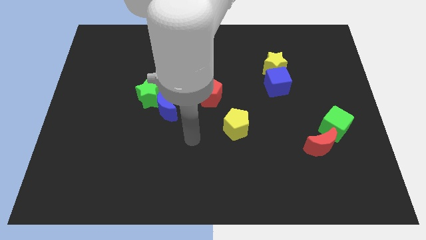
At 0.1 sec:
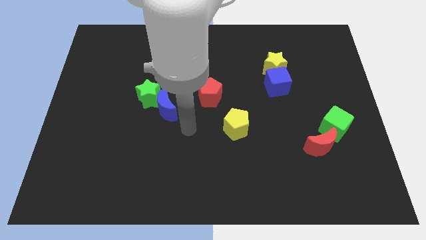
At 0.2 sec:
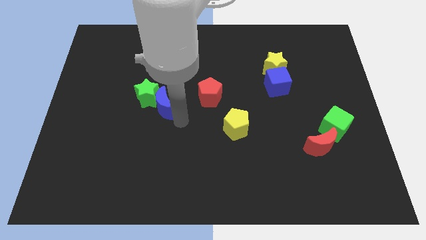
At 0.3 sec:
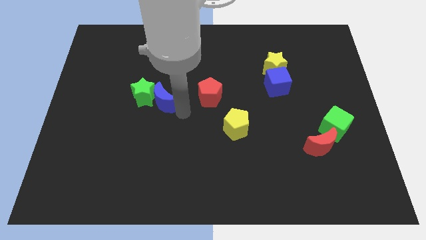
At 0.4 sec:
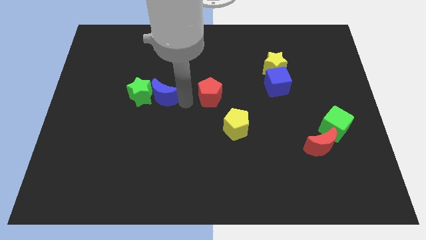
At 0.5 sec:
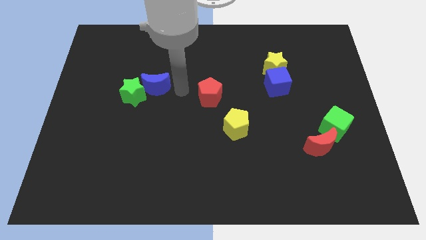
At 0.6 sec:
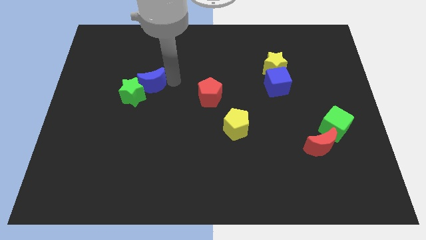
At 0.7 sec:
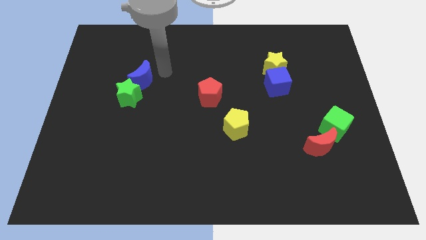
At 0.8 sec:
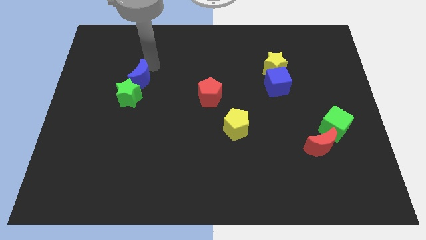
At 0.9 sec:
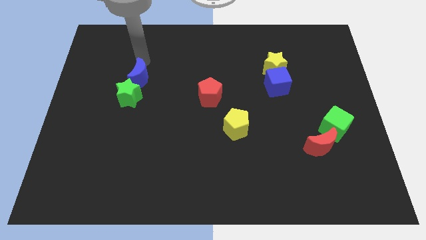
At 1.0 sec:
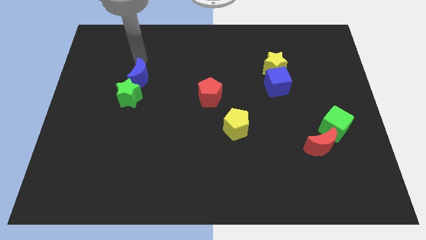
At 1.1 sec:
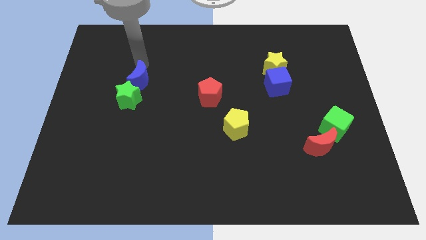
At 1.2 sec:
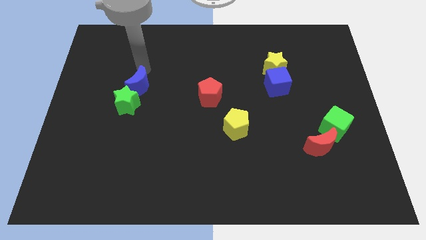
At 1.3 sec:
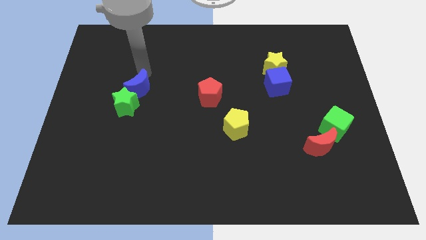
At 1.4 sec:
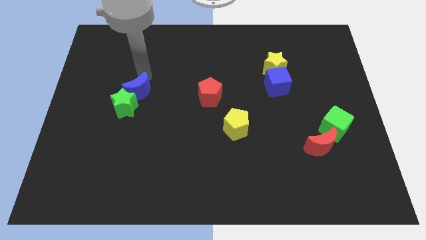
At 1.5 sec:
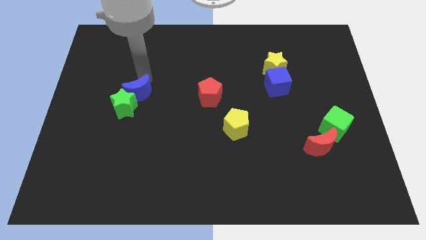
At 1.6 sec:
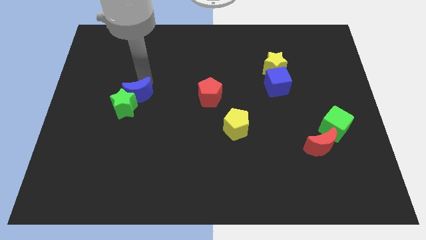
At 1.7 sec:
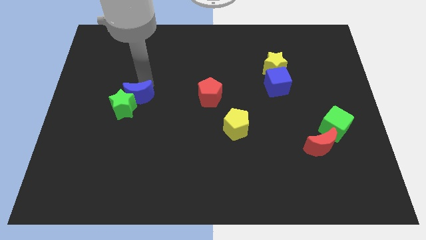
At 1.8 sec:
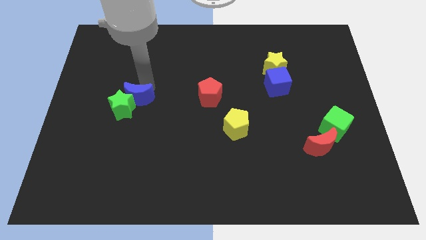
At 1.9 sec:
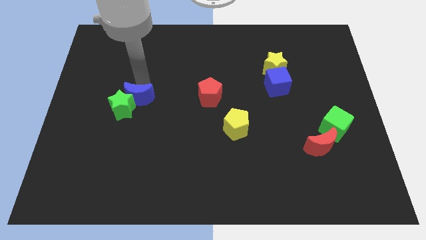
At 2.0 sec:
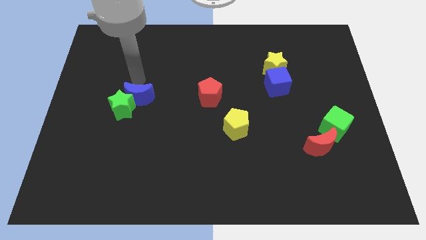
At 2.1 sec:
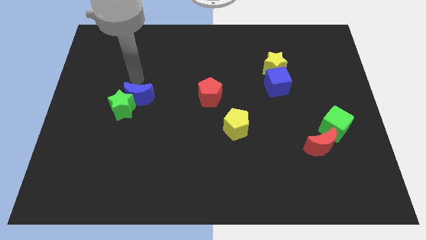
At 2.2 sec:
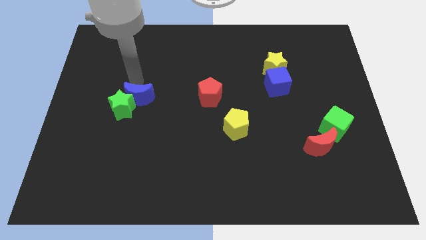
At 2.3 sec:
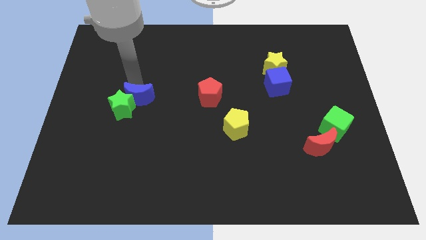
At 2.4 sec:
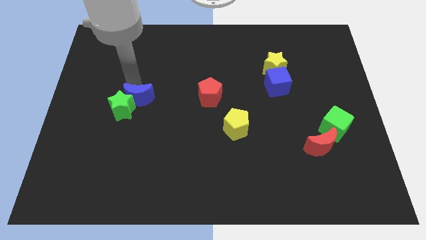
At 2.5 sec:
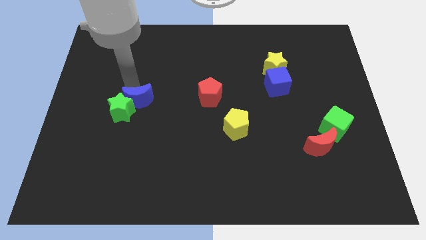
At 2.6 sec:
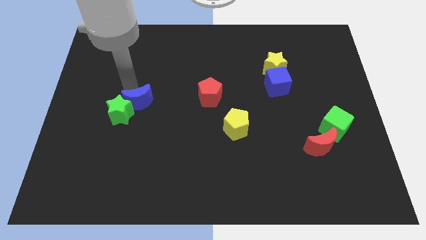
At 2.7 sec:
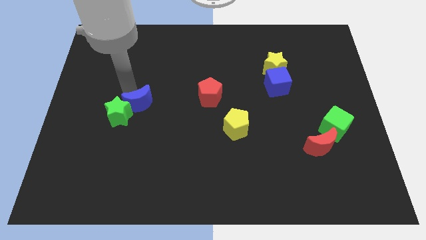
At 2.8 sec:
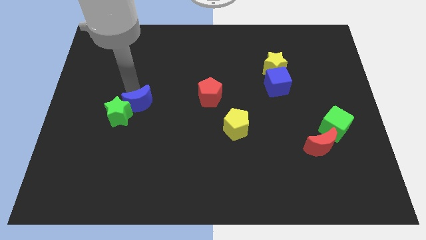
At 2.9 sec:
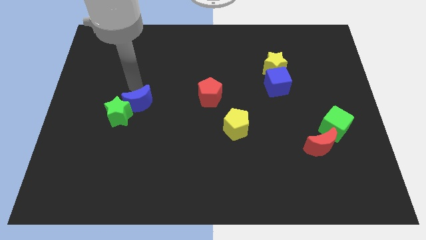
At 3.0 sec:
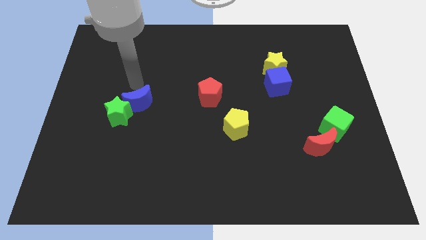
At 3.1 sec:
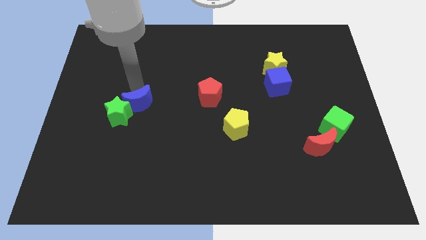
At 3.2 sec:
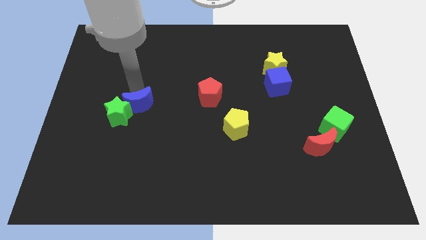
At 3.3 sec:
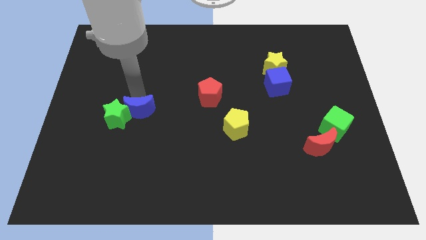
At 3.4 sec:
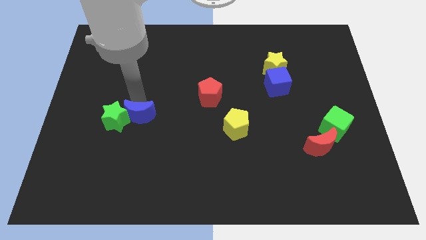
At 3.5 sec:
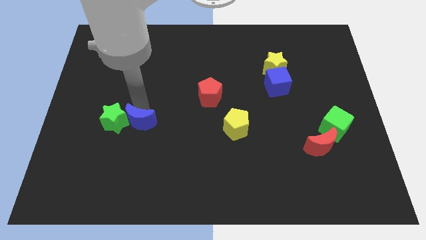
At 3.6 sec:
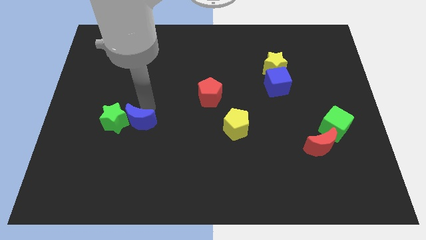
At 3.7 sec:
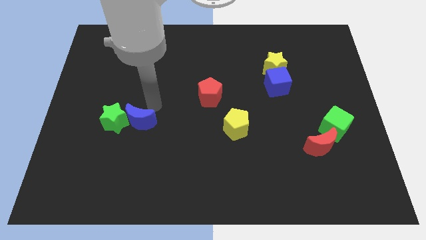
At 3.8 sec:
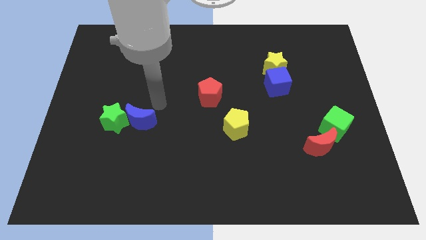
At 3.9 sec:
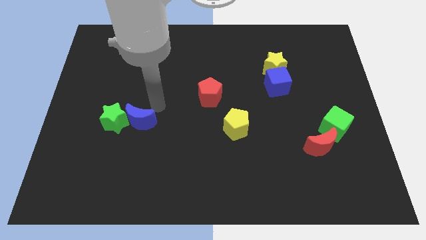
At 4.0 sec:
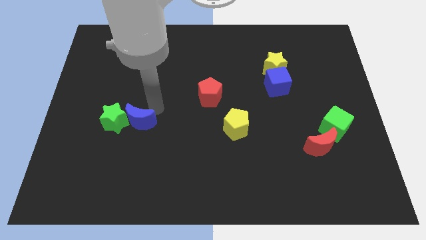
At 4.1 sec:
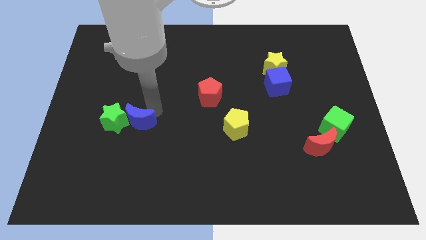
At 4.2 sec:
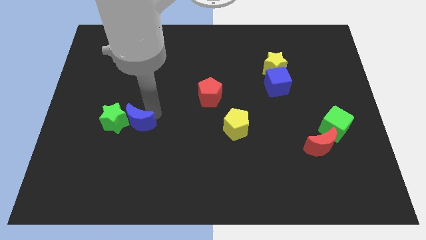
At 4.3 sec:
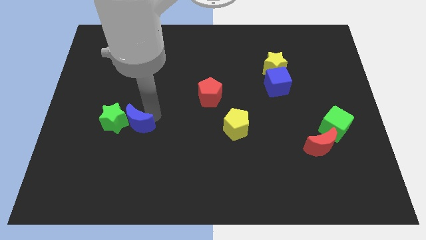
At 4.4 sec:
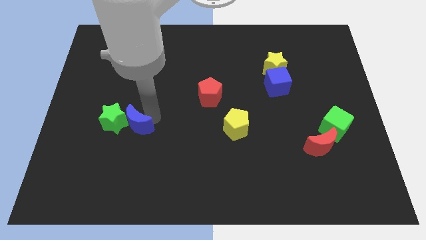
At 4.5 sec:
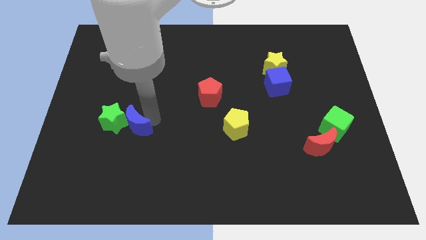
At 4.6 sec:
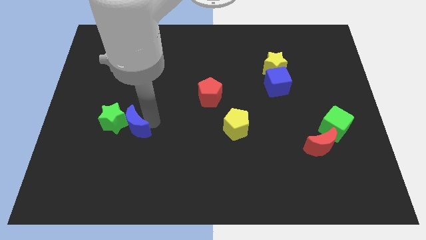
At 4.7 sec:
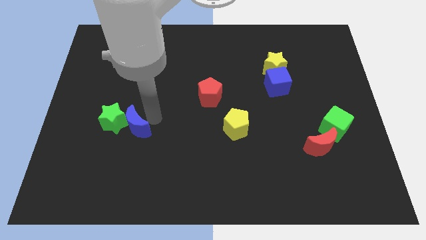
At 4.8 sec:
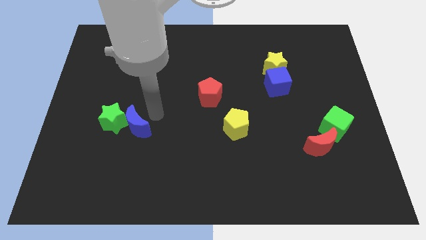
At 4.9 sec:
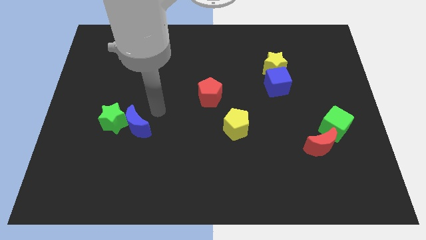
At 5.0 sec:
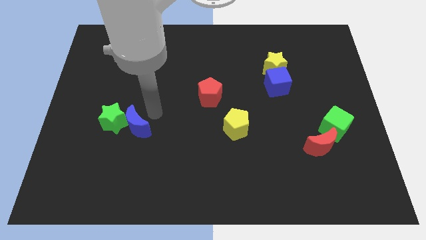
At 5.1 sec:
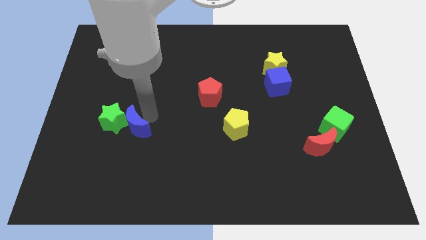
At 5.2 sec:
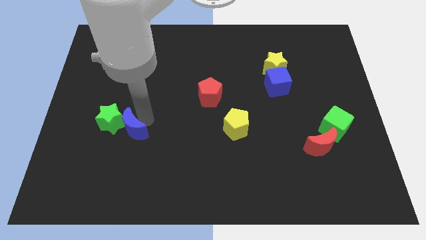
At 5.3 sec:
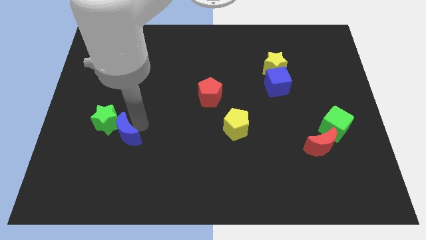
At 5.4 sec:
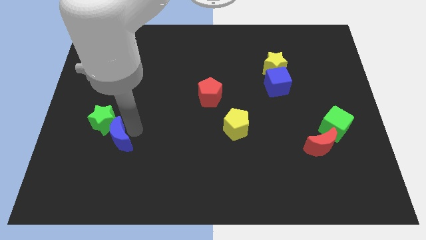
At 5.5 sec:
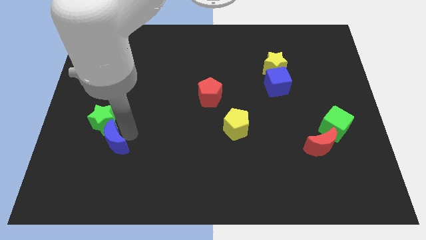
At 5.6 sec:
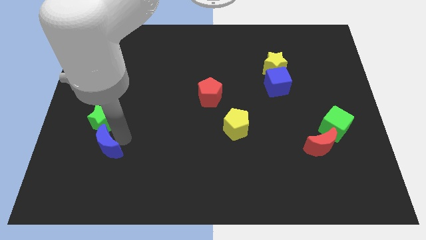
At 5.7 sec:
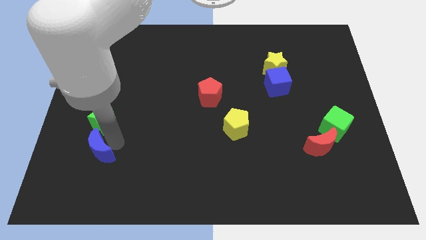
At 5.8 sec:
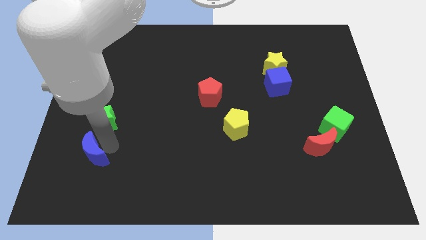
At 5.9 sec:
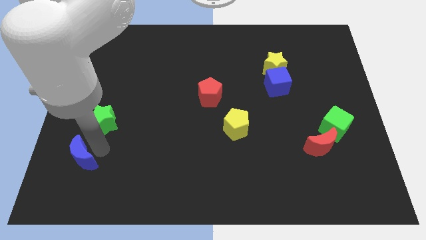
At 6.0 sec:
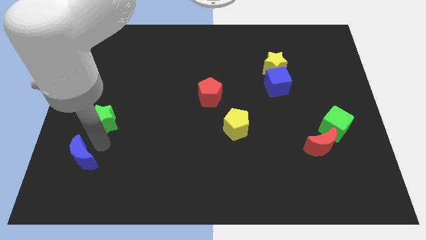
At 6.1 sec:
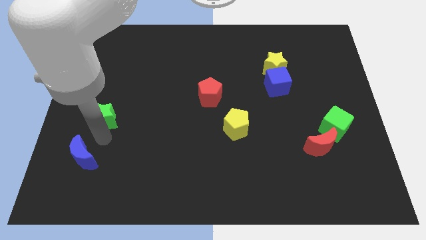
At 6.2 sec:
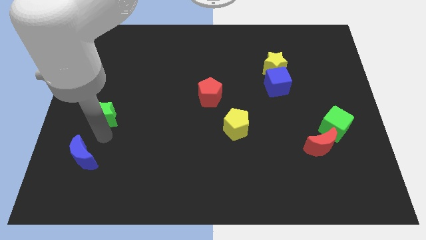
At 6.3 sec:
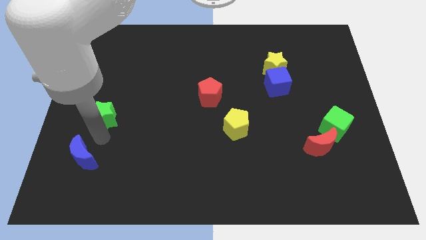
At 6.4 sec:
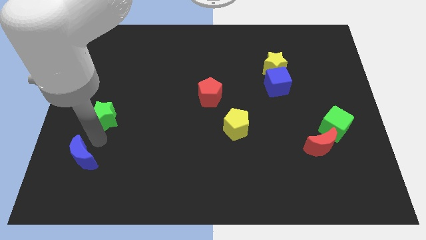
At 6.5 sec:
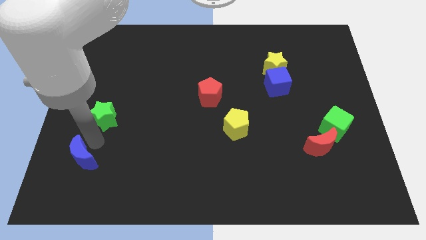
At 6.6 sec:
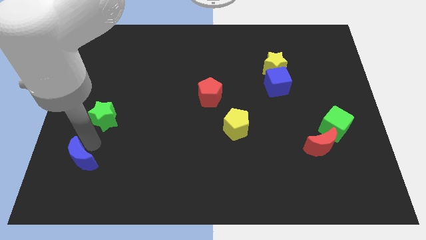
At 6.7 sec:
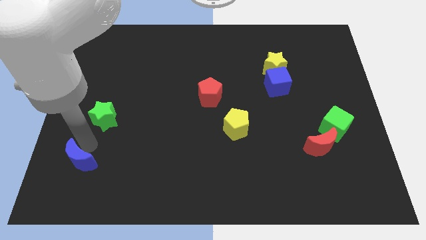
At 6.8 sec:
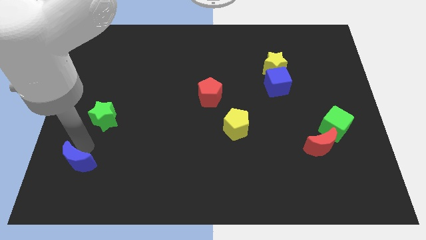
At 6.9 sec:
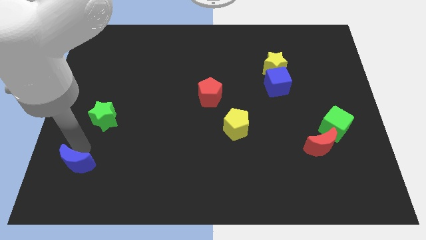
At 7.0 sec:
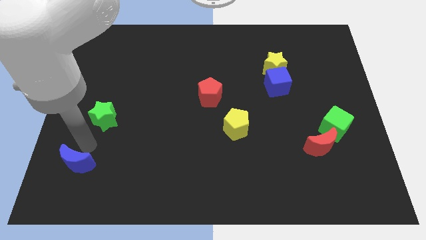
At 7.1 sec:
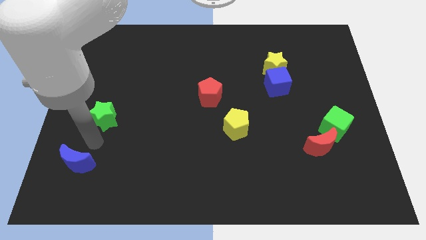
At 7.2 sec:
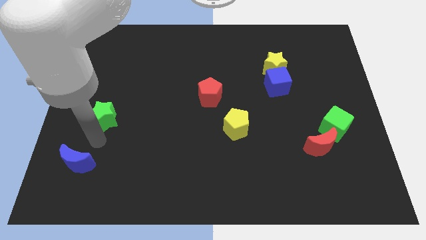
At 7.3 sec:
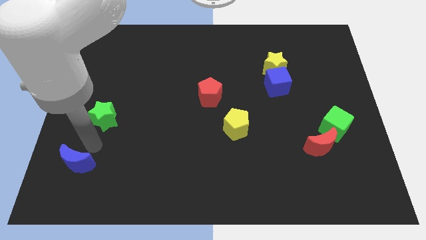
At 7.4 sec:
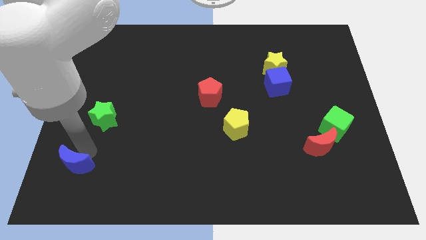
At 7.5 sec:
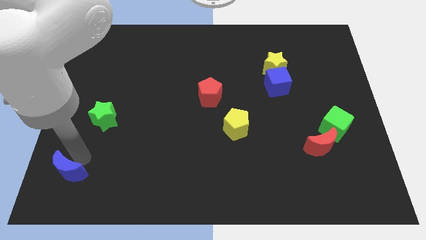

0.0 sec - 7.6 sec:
move the blue moon to the bottom left of the board

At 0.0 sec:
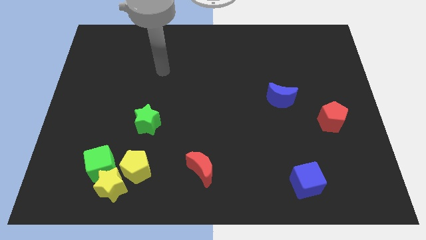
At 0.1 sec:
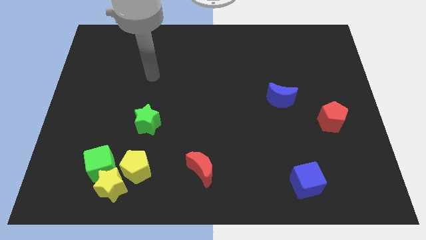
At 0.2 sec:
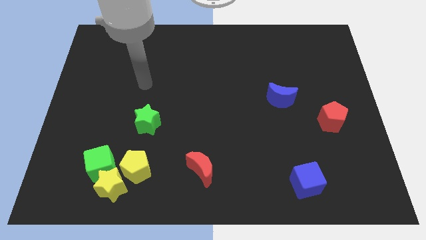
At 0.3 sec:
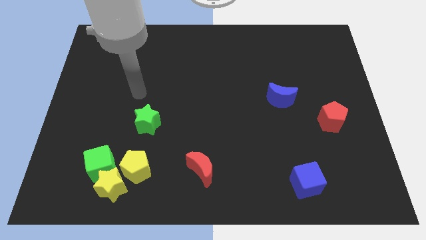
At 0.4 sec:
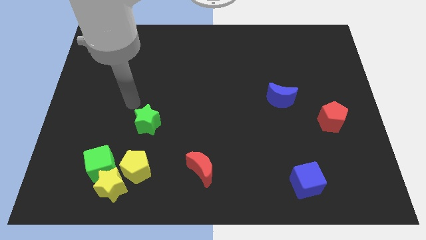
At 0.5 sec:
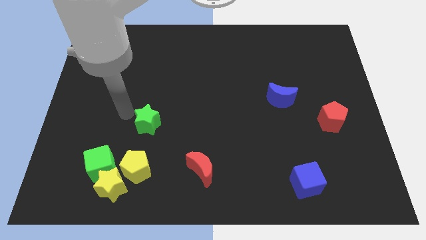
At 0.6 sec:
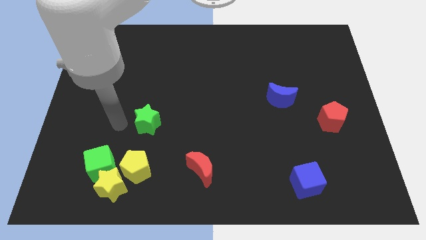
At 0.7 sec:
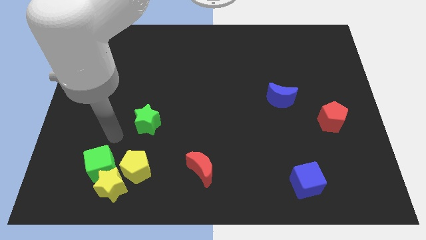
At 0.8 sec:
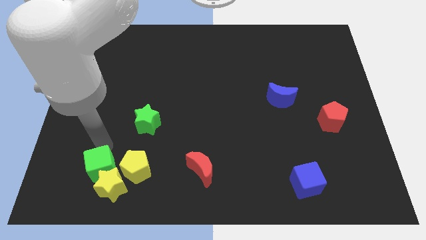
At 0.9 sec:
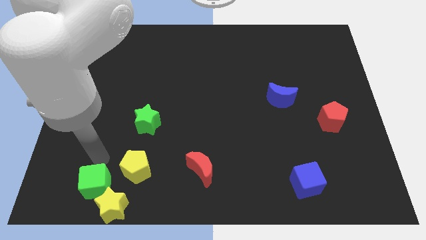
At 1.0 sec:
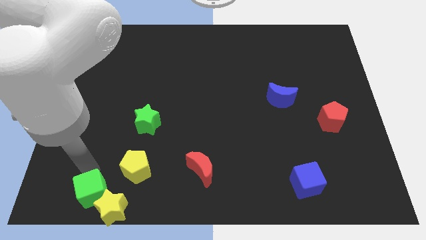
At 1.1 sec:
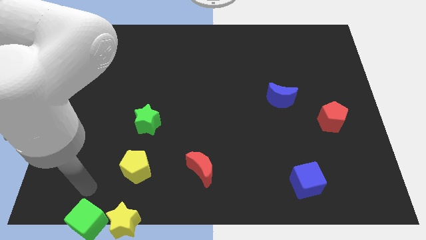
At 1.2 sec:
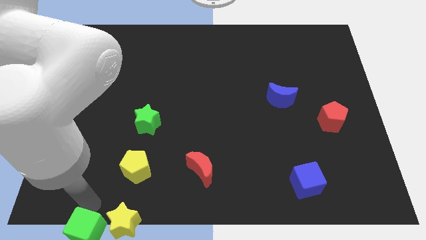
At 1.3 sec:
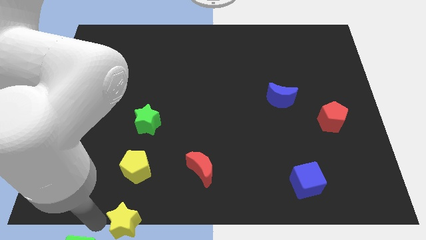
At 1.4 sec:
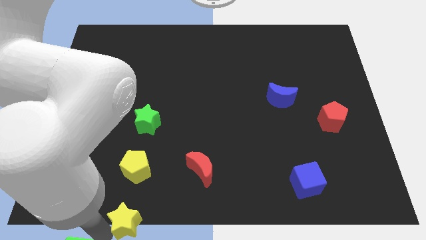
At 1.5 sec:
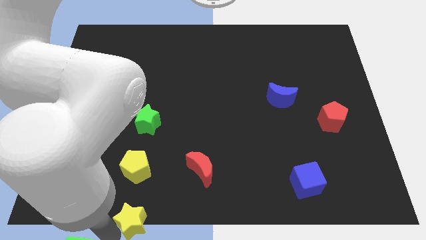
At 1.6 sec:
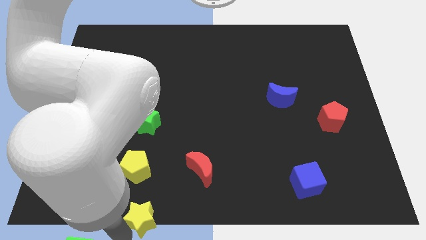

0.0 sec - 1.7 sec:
put the yellow star to the bottom
